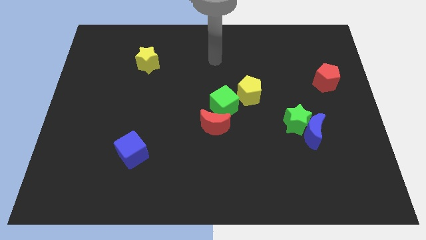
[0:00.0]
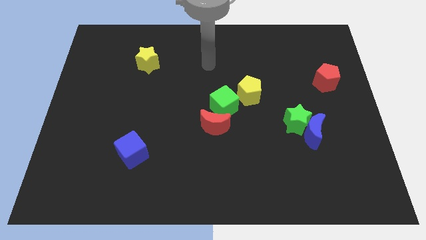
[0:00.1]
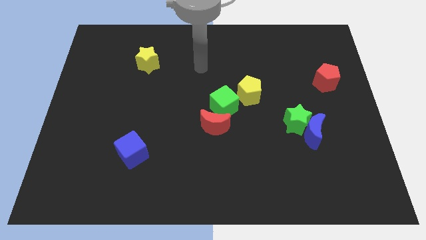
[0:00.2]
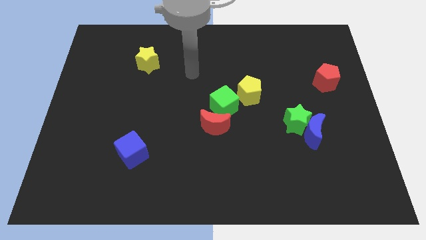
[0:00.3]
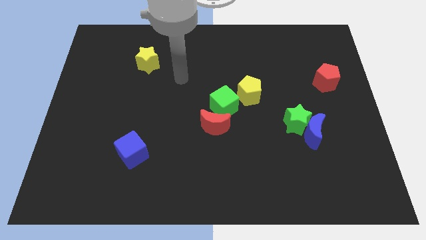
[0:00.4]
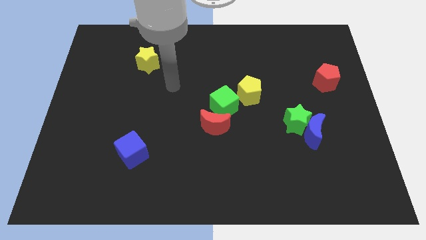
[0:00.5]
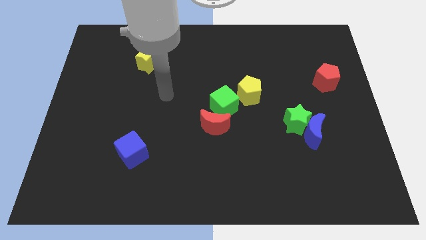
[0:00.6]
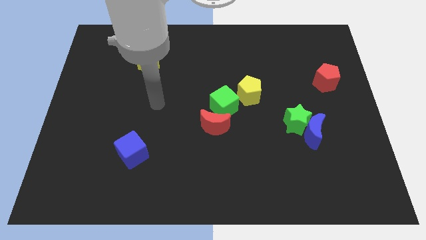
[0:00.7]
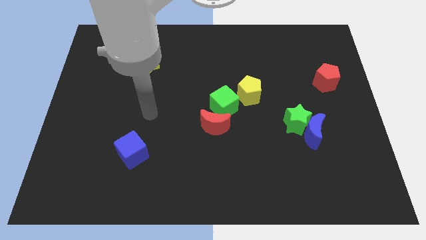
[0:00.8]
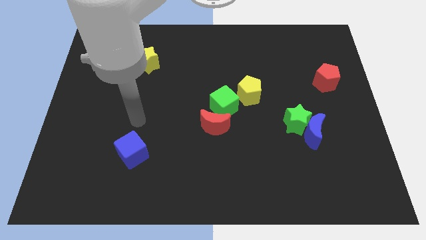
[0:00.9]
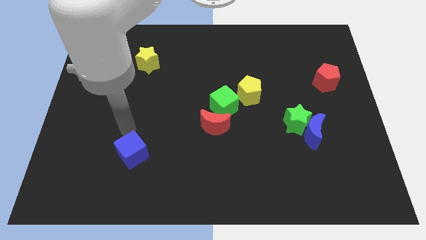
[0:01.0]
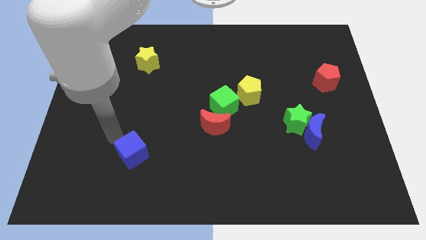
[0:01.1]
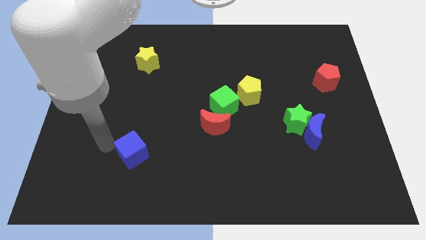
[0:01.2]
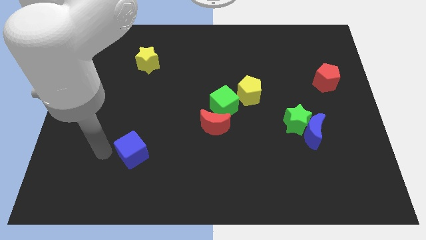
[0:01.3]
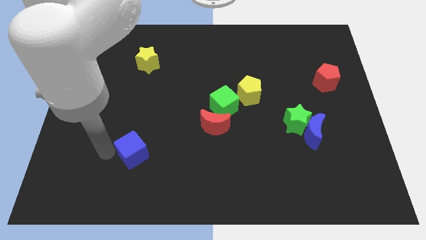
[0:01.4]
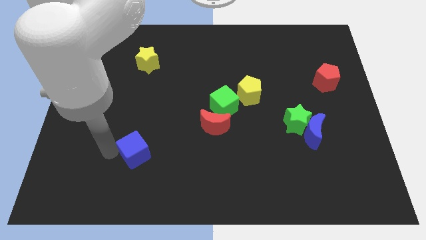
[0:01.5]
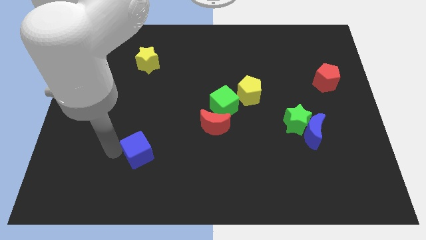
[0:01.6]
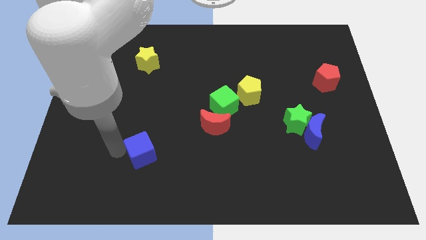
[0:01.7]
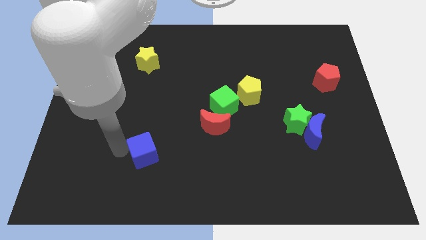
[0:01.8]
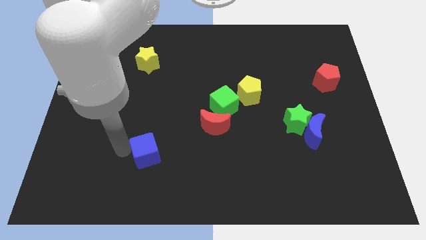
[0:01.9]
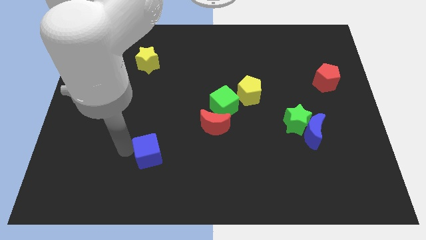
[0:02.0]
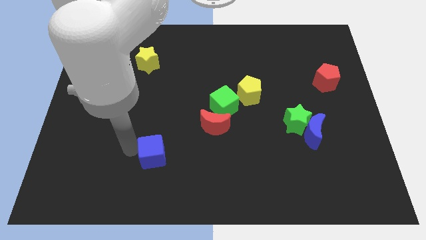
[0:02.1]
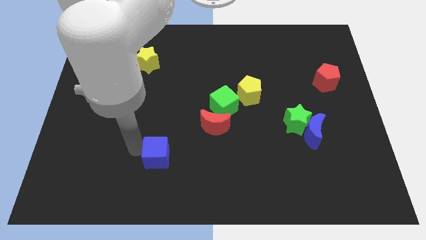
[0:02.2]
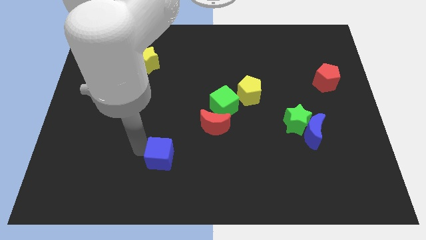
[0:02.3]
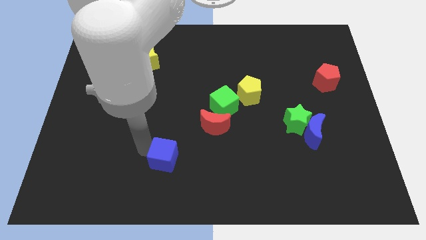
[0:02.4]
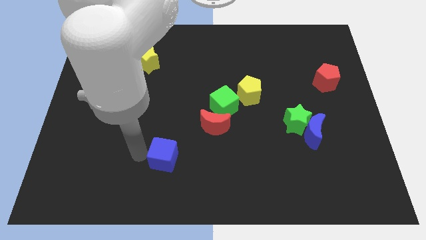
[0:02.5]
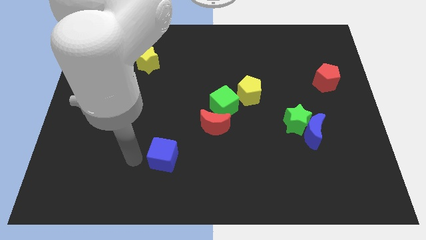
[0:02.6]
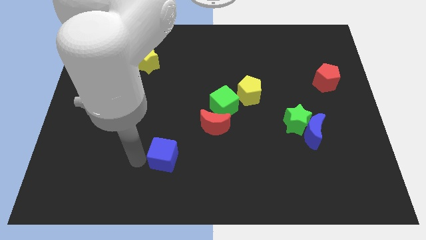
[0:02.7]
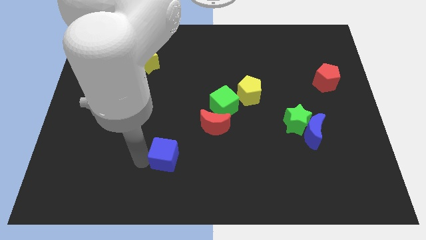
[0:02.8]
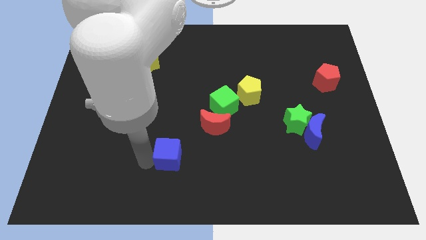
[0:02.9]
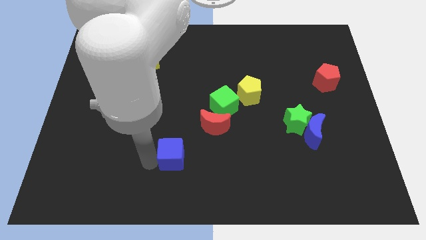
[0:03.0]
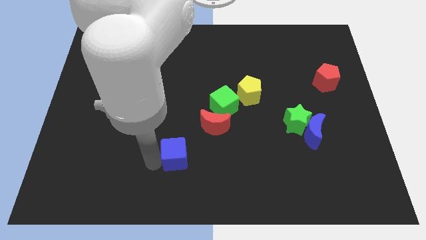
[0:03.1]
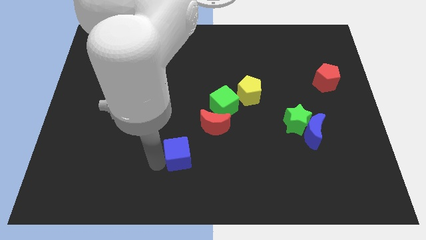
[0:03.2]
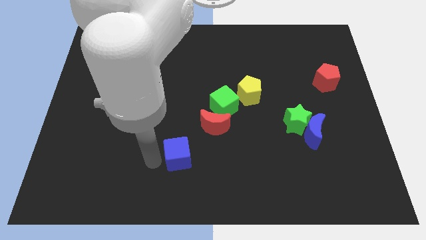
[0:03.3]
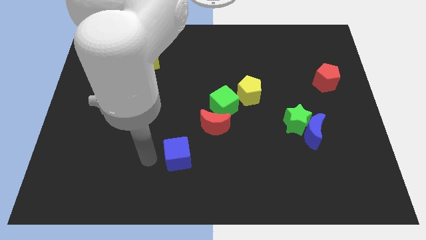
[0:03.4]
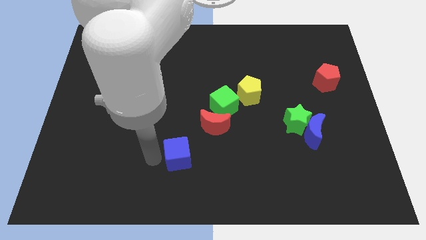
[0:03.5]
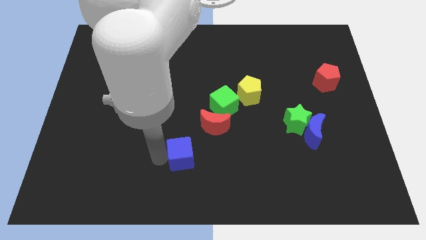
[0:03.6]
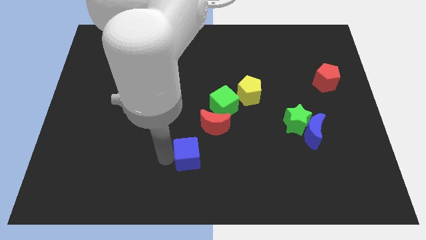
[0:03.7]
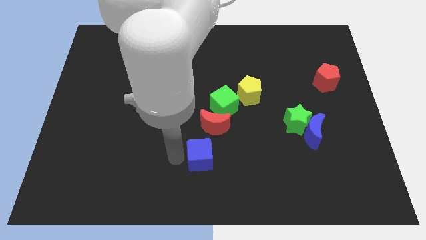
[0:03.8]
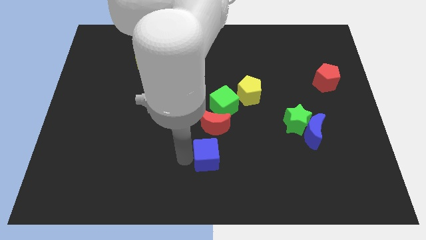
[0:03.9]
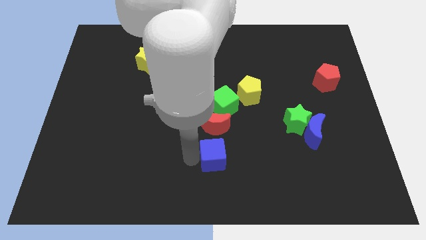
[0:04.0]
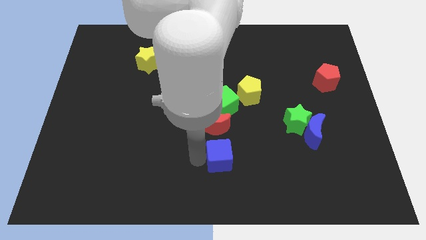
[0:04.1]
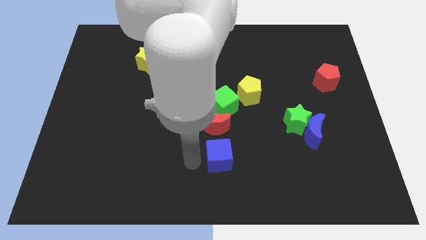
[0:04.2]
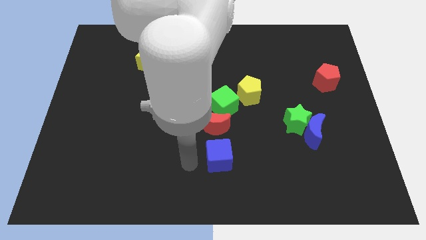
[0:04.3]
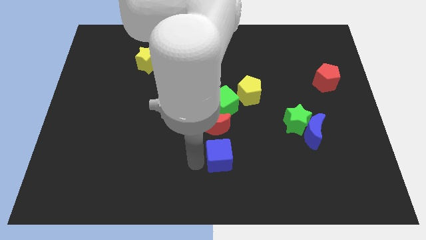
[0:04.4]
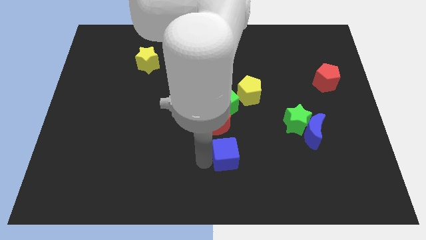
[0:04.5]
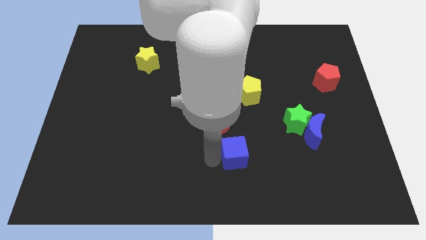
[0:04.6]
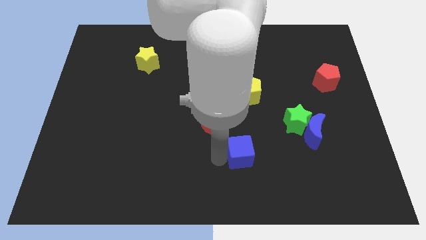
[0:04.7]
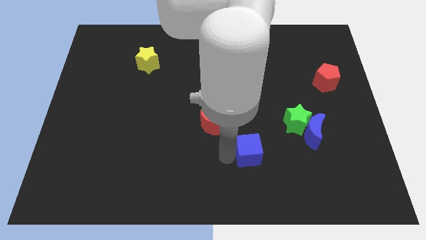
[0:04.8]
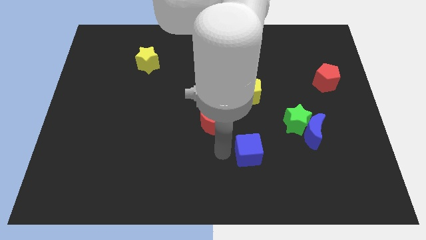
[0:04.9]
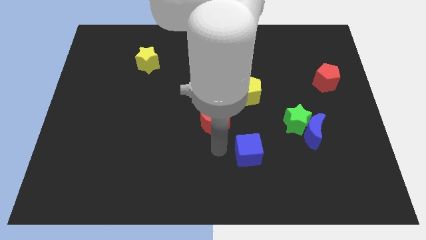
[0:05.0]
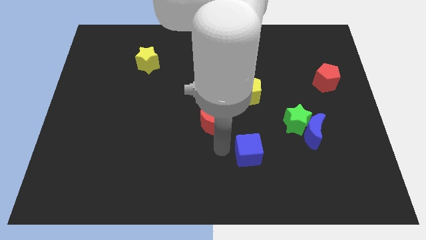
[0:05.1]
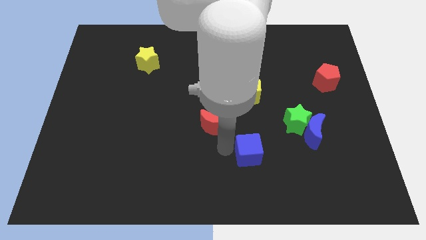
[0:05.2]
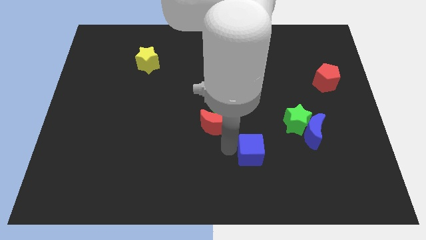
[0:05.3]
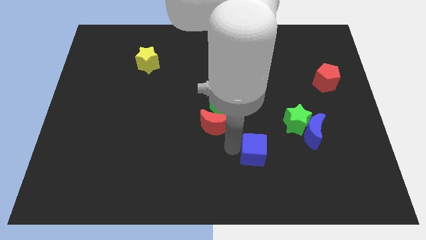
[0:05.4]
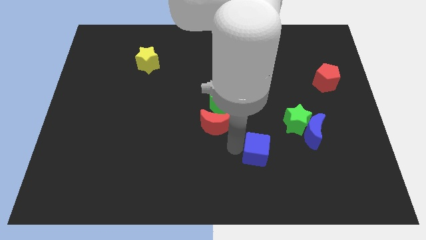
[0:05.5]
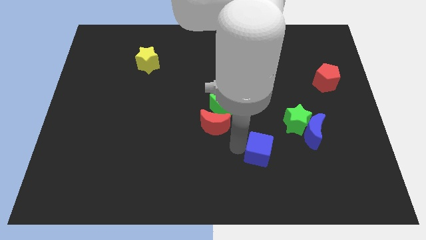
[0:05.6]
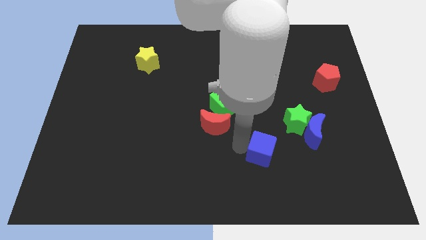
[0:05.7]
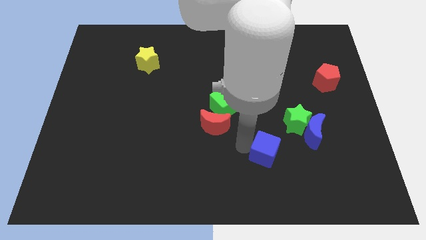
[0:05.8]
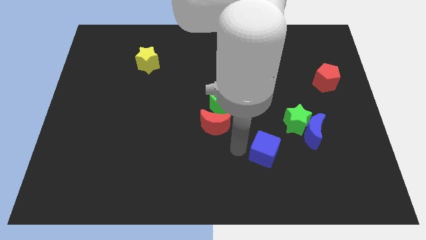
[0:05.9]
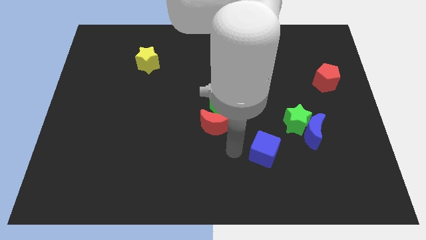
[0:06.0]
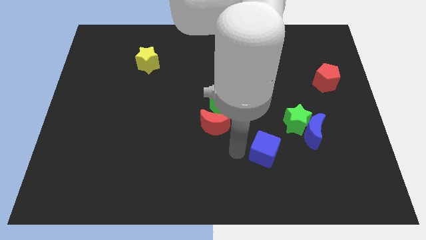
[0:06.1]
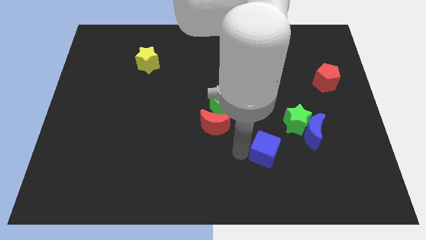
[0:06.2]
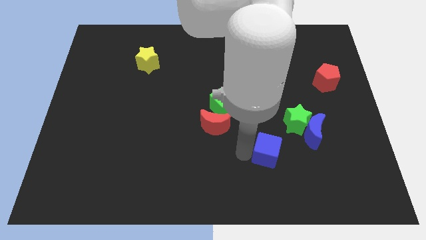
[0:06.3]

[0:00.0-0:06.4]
push the blue cube to the bottom left side of the blue moon

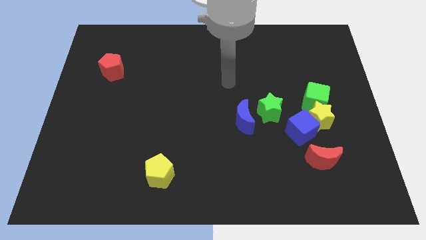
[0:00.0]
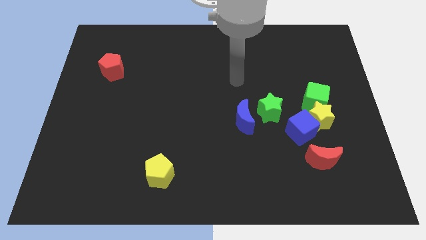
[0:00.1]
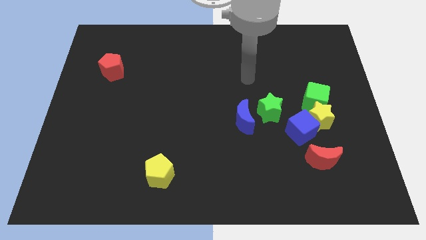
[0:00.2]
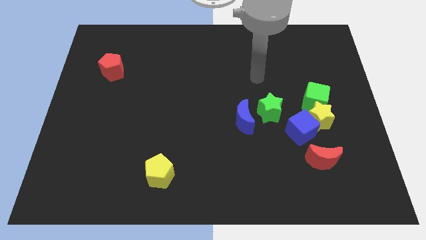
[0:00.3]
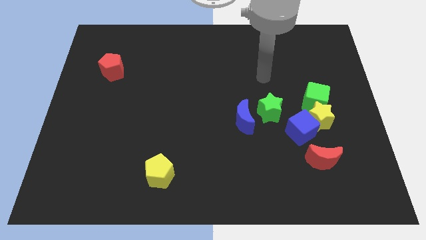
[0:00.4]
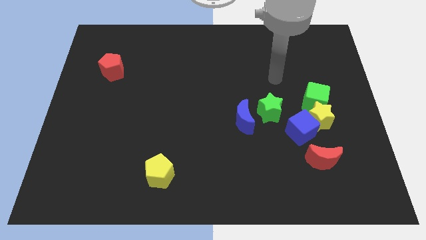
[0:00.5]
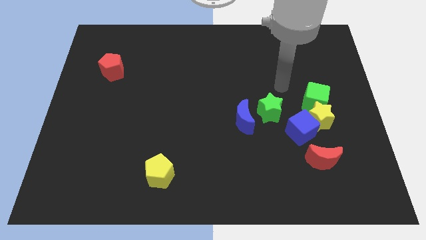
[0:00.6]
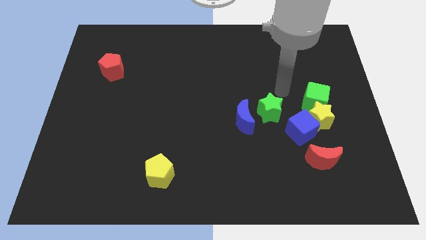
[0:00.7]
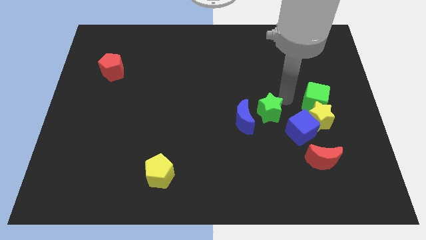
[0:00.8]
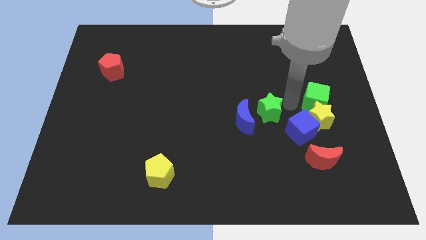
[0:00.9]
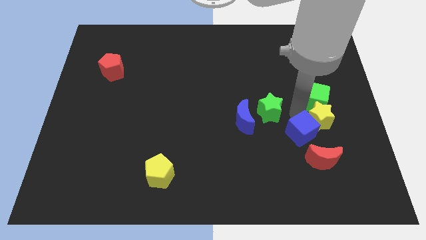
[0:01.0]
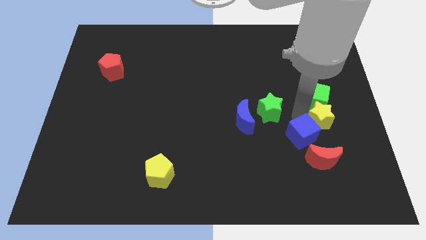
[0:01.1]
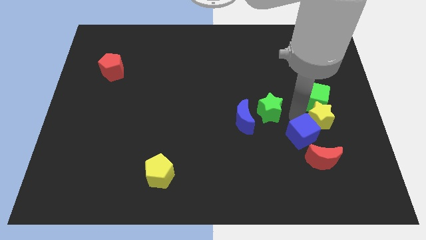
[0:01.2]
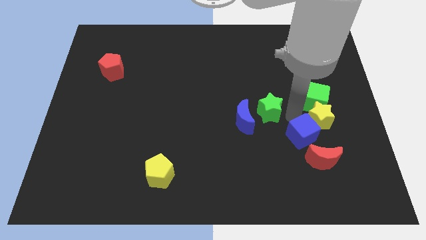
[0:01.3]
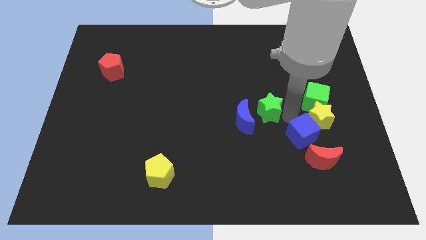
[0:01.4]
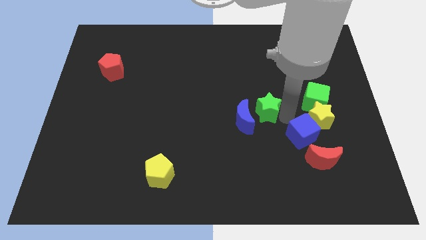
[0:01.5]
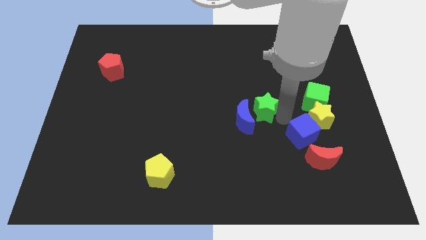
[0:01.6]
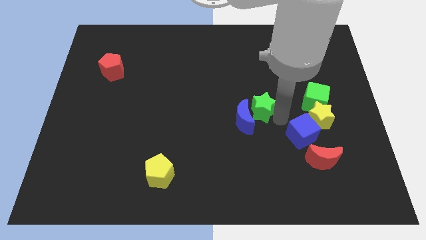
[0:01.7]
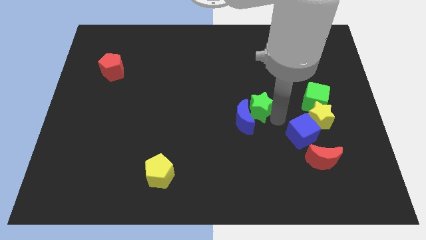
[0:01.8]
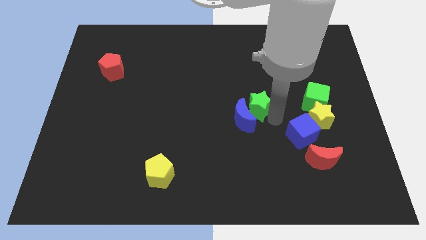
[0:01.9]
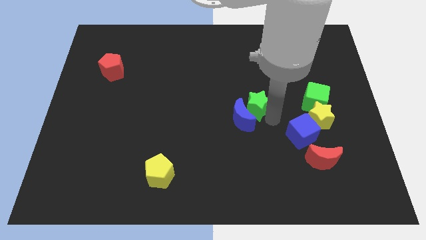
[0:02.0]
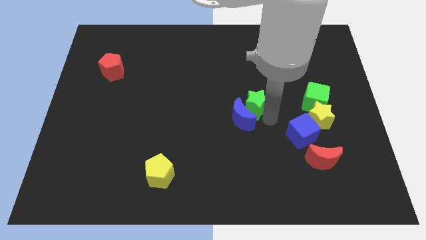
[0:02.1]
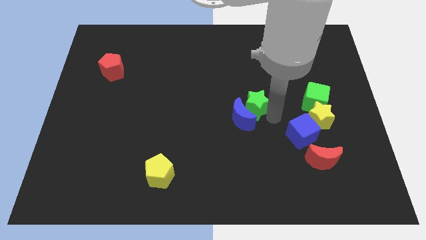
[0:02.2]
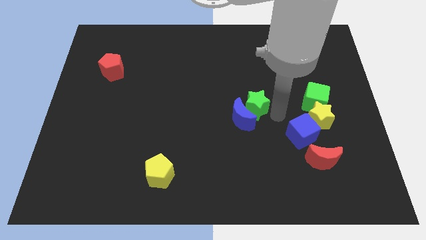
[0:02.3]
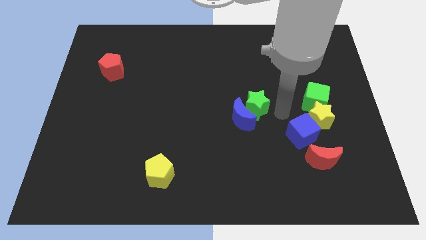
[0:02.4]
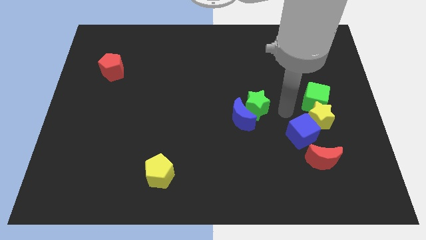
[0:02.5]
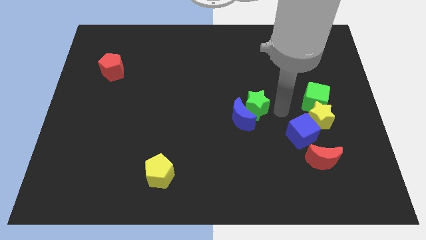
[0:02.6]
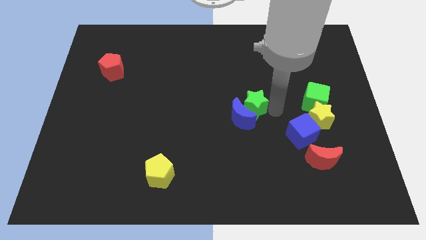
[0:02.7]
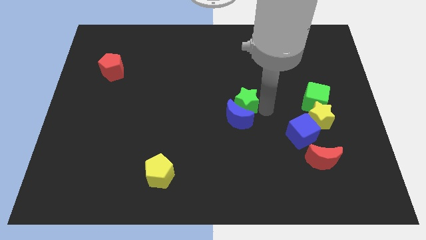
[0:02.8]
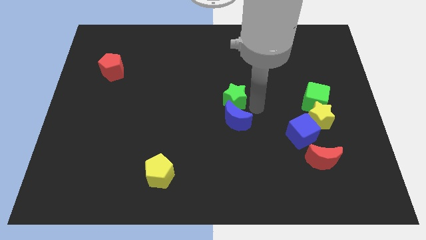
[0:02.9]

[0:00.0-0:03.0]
move the green star to the top left side of the blue moon
